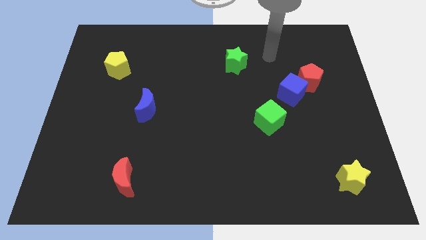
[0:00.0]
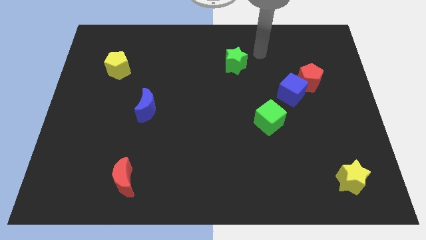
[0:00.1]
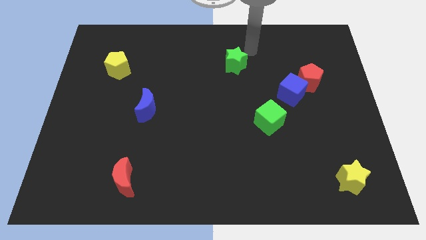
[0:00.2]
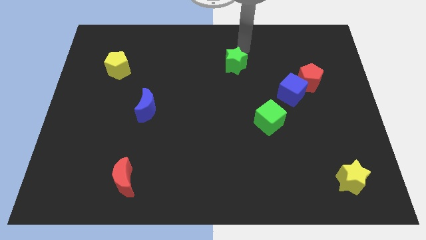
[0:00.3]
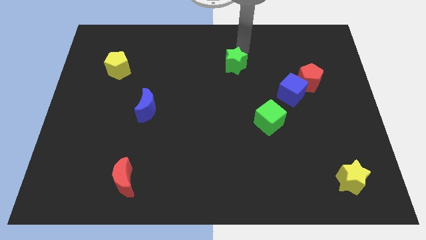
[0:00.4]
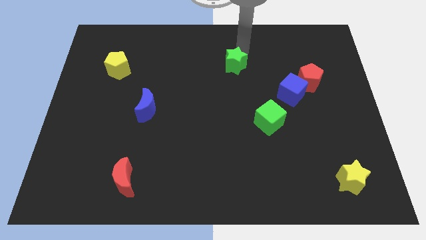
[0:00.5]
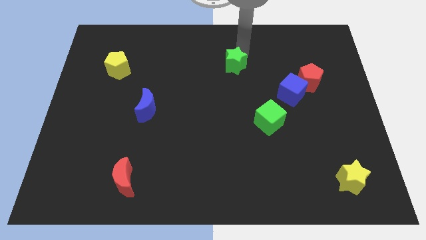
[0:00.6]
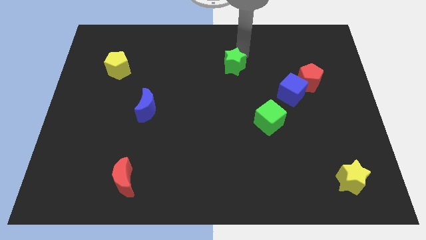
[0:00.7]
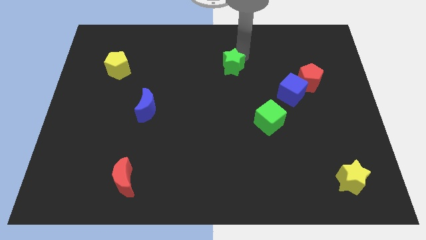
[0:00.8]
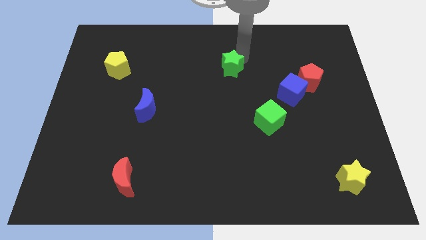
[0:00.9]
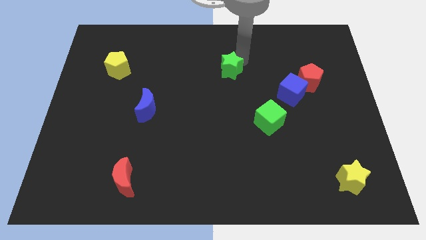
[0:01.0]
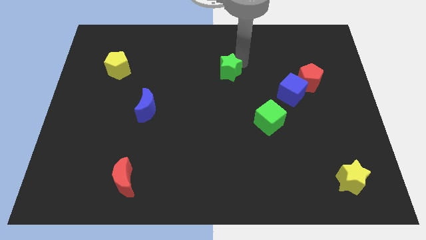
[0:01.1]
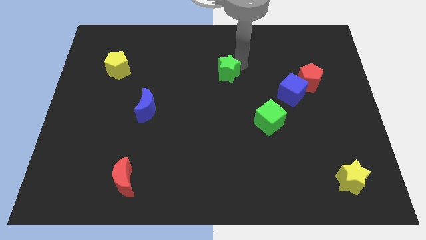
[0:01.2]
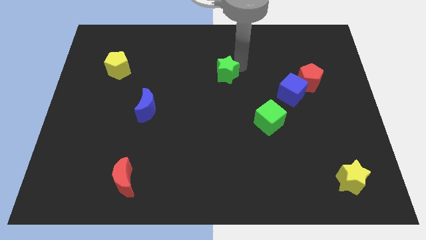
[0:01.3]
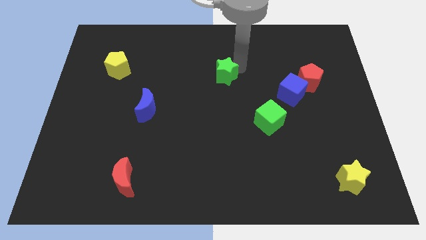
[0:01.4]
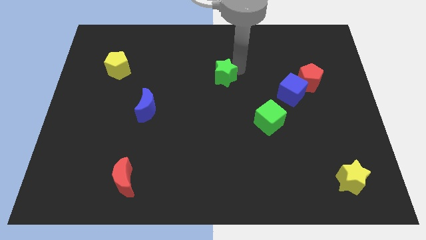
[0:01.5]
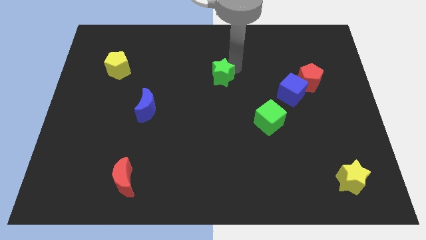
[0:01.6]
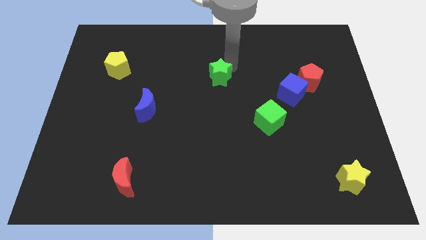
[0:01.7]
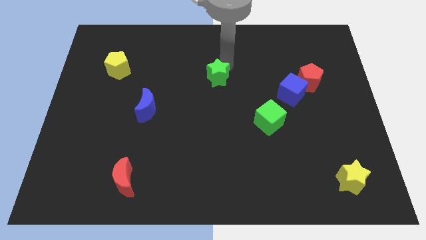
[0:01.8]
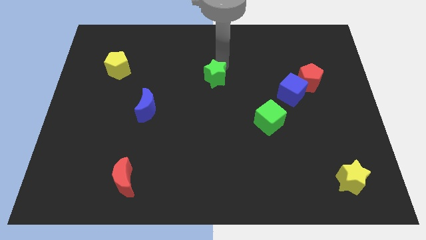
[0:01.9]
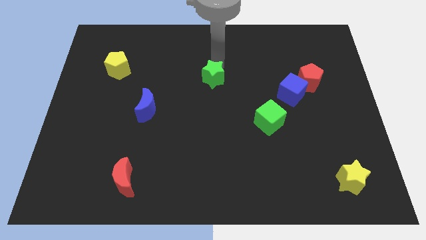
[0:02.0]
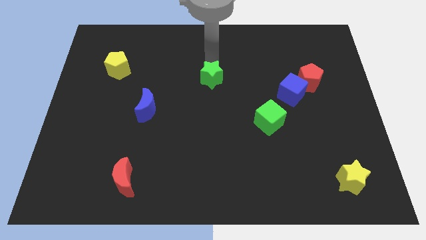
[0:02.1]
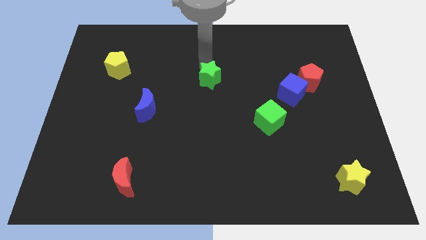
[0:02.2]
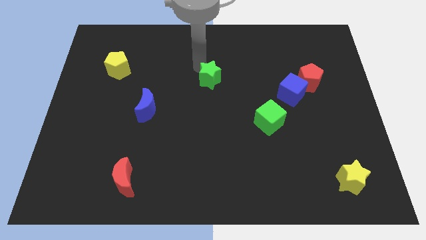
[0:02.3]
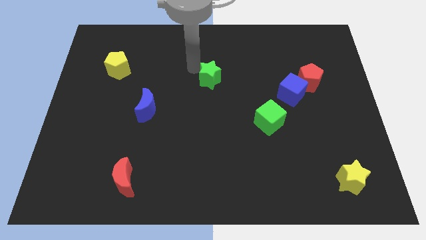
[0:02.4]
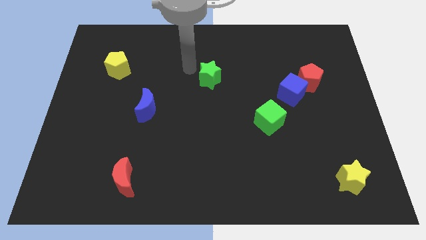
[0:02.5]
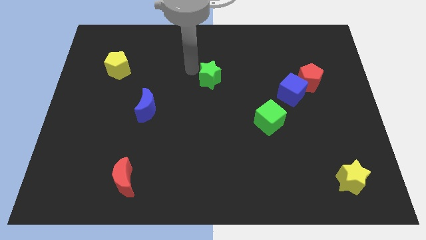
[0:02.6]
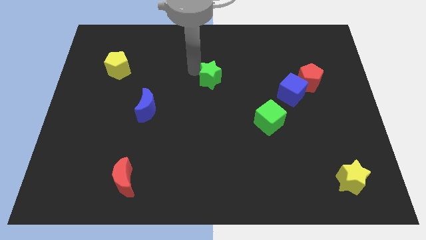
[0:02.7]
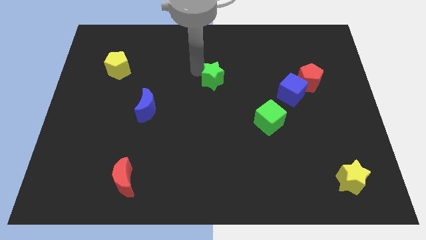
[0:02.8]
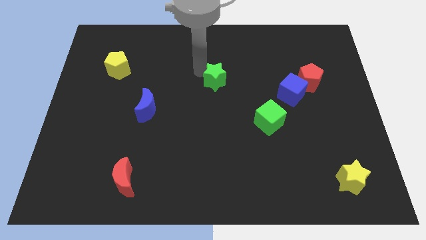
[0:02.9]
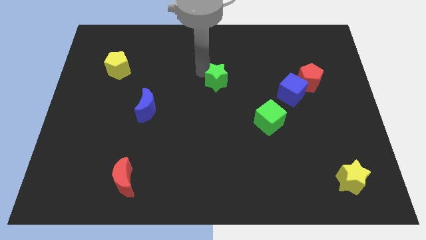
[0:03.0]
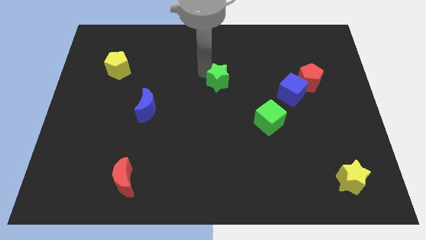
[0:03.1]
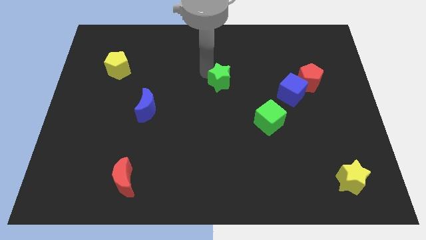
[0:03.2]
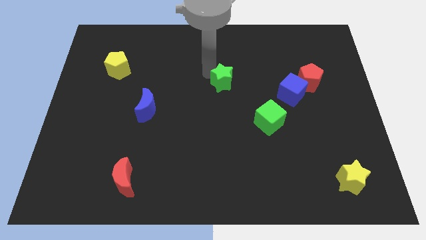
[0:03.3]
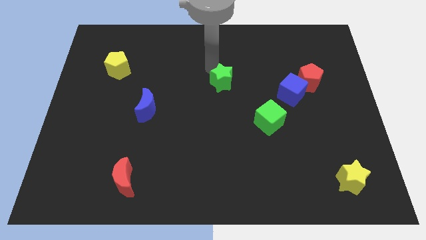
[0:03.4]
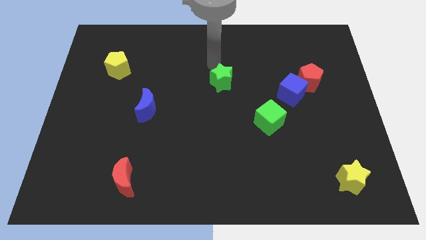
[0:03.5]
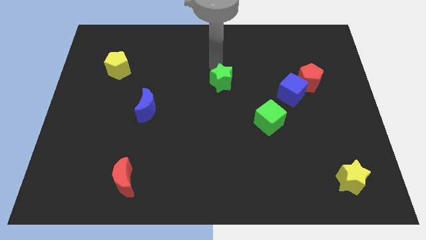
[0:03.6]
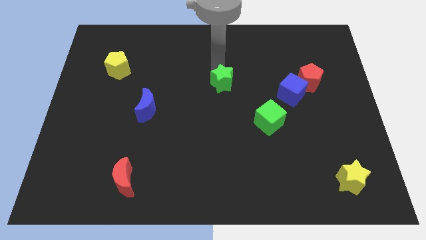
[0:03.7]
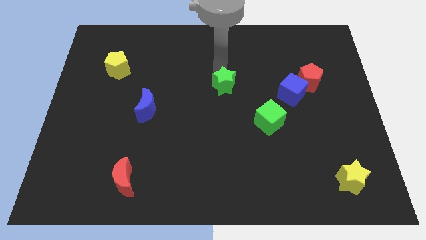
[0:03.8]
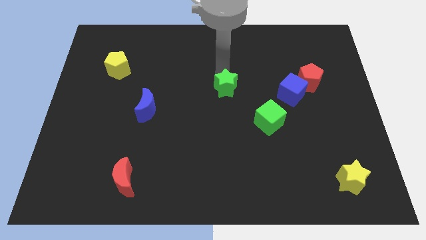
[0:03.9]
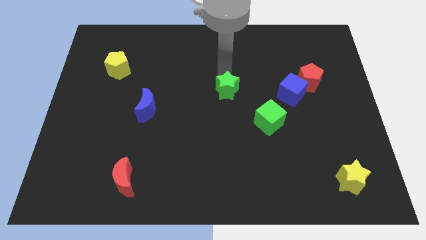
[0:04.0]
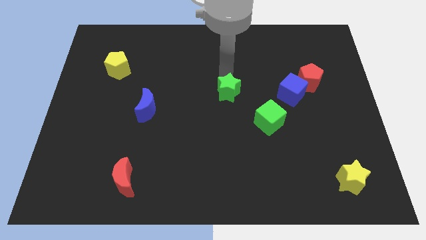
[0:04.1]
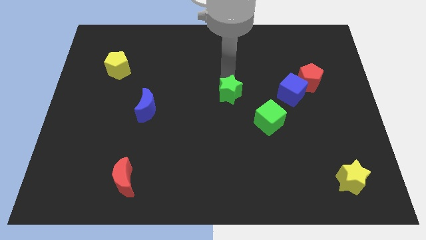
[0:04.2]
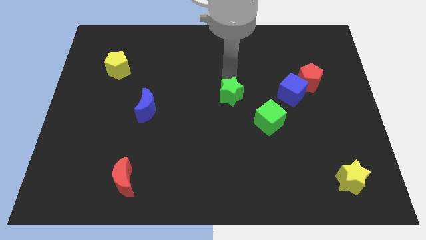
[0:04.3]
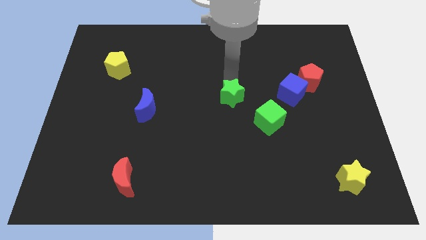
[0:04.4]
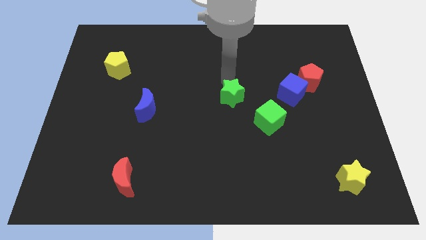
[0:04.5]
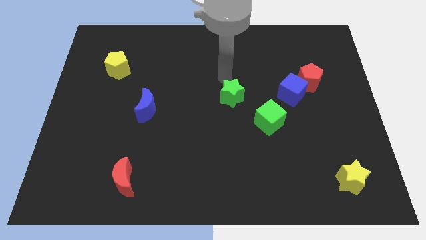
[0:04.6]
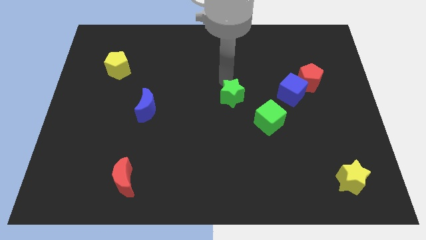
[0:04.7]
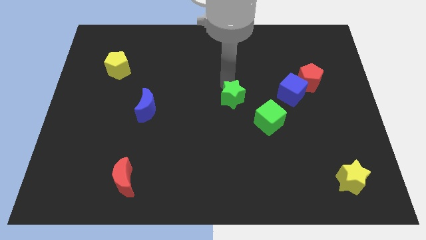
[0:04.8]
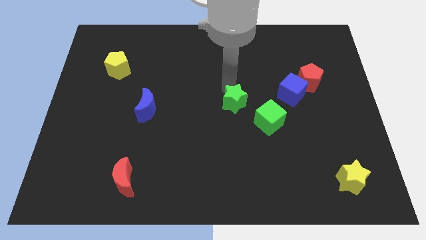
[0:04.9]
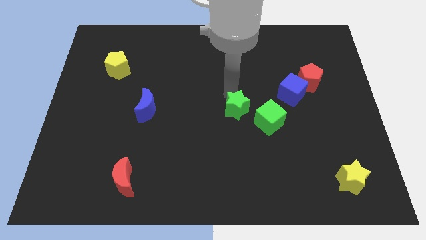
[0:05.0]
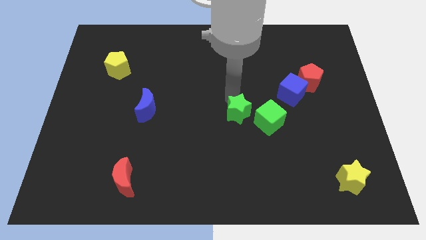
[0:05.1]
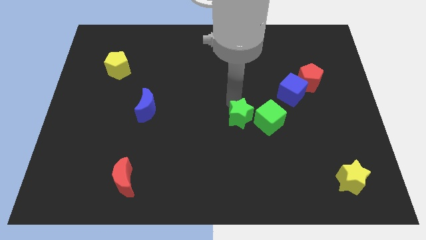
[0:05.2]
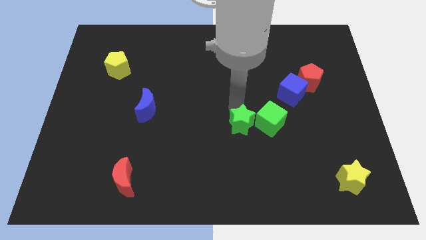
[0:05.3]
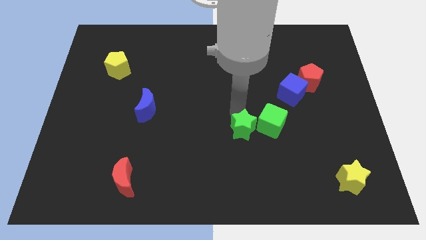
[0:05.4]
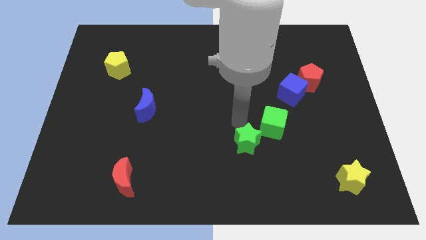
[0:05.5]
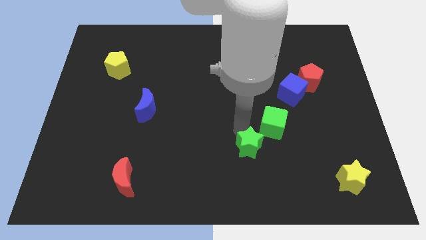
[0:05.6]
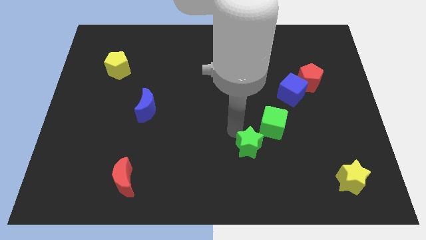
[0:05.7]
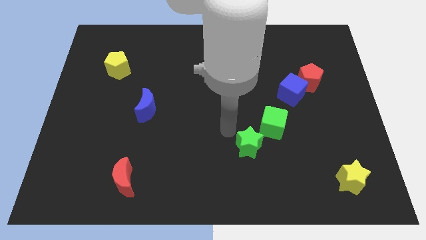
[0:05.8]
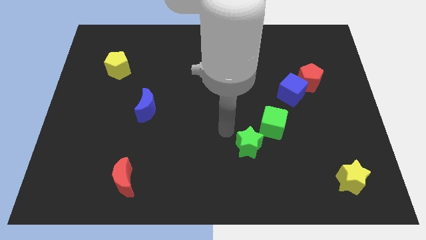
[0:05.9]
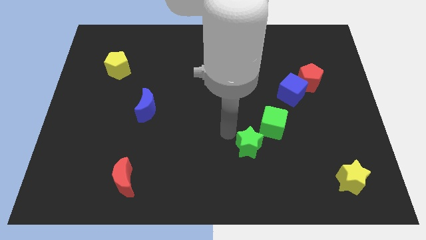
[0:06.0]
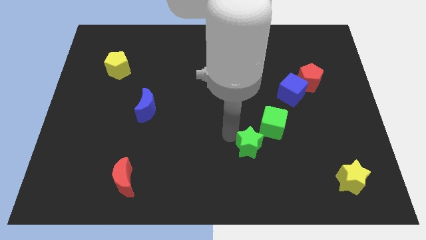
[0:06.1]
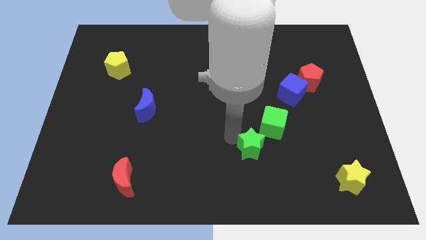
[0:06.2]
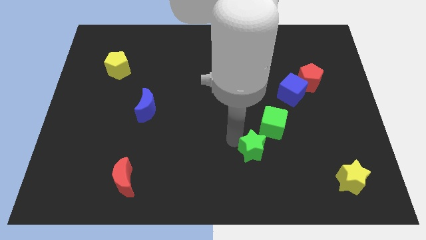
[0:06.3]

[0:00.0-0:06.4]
move the green star below the green cube

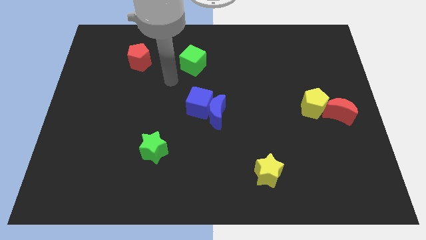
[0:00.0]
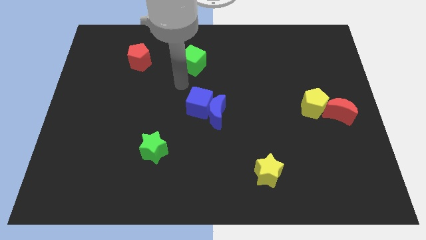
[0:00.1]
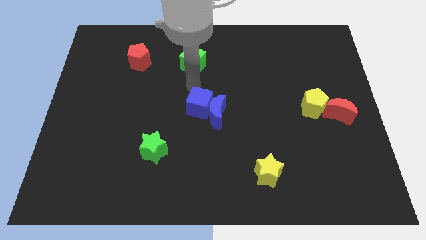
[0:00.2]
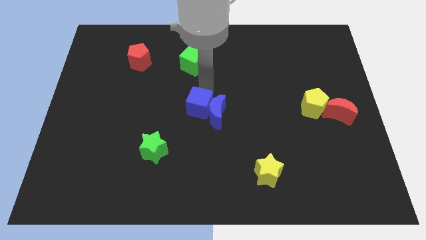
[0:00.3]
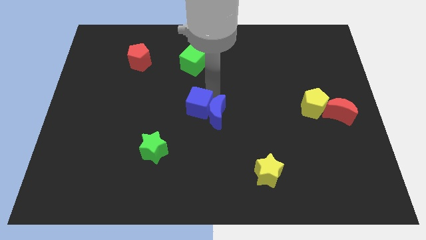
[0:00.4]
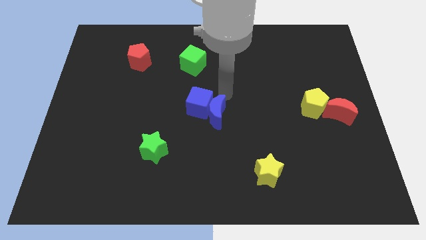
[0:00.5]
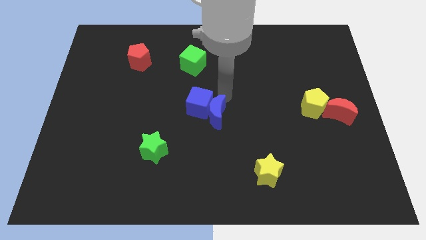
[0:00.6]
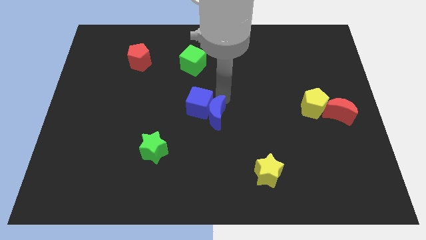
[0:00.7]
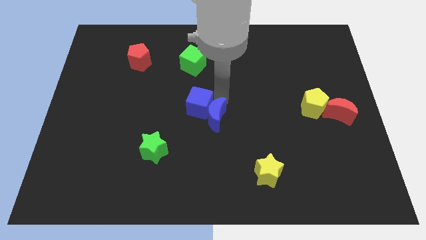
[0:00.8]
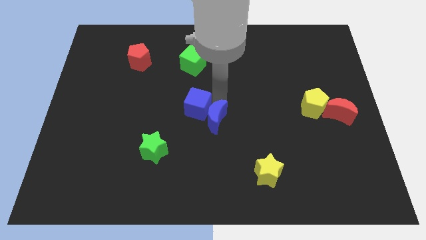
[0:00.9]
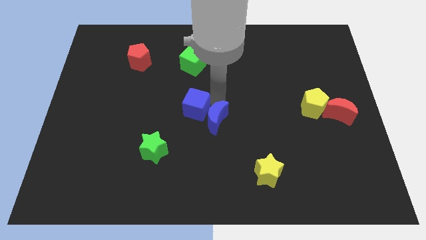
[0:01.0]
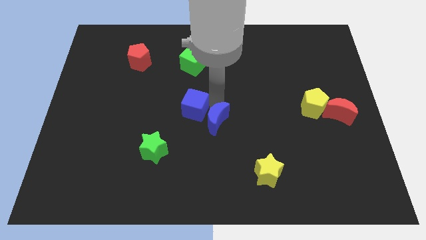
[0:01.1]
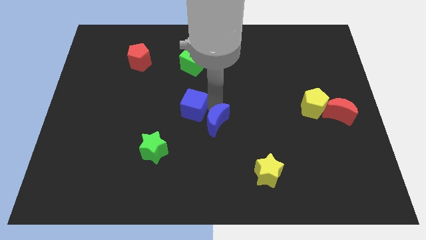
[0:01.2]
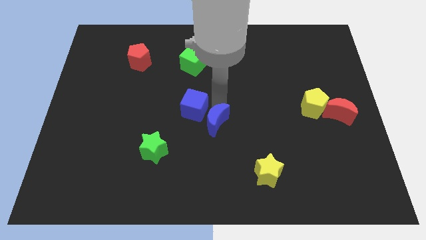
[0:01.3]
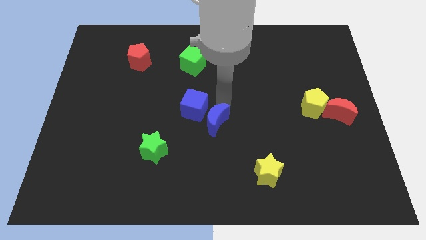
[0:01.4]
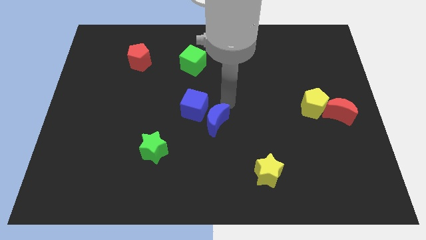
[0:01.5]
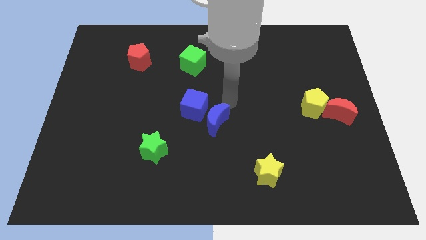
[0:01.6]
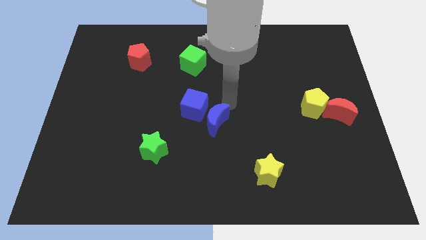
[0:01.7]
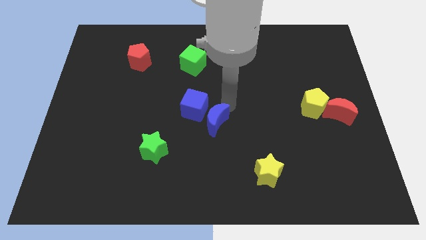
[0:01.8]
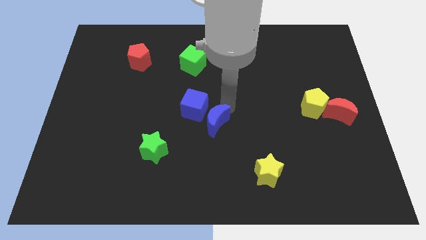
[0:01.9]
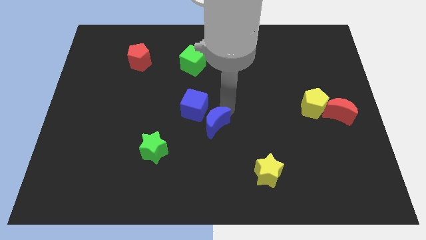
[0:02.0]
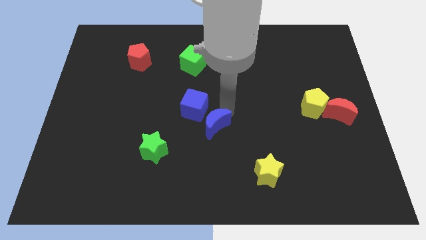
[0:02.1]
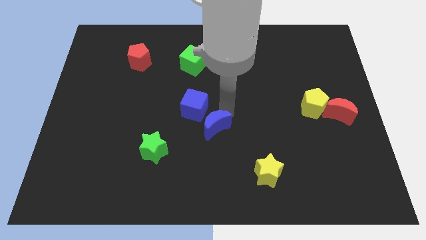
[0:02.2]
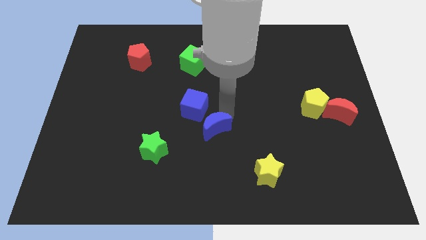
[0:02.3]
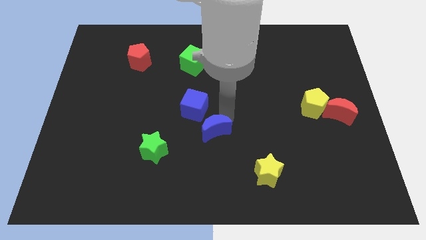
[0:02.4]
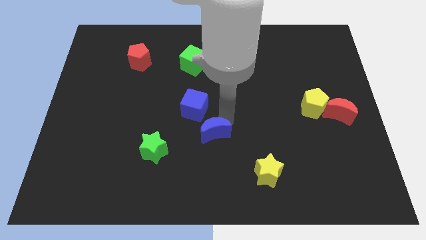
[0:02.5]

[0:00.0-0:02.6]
put the blue moon to the right of the green star
